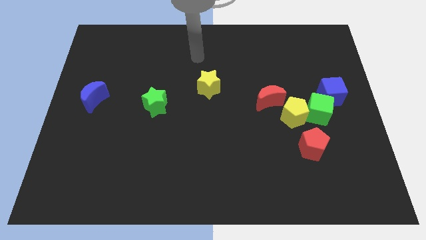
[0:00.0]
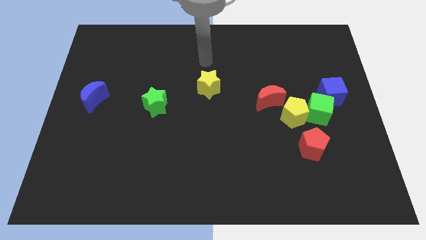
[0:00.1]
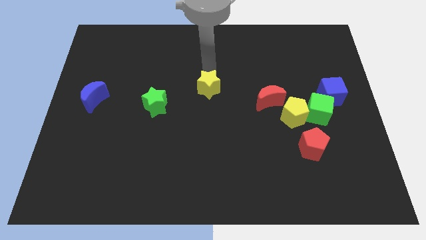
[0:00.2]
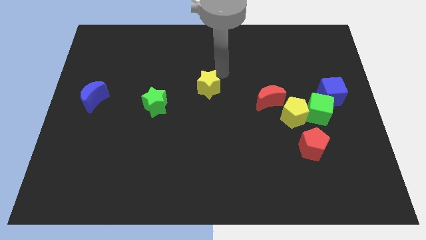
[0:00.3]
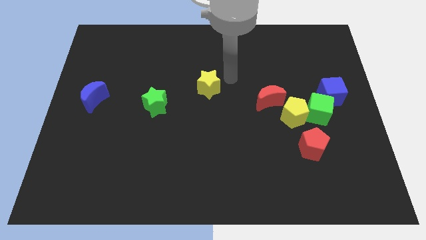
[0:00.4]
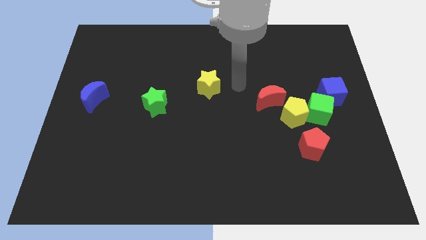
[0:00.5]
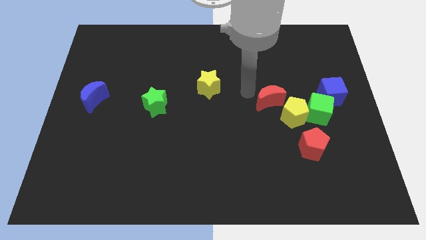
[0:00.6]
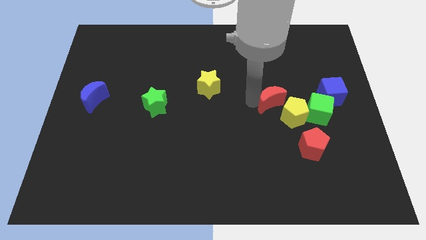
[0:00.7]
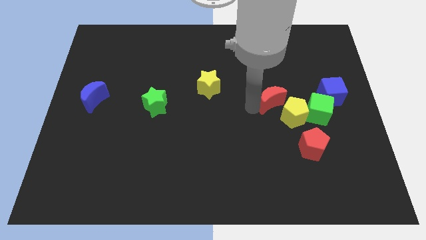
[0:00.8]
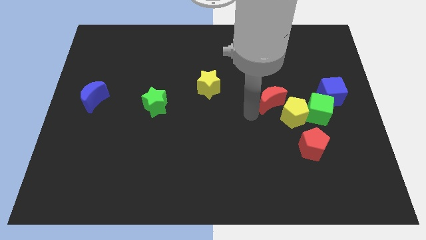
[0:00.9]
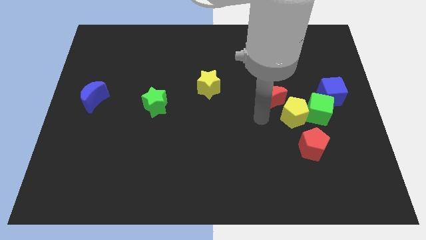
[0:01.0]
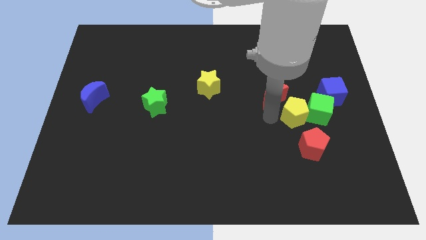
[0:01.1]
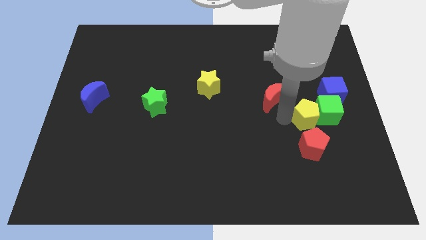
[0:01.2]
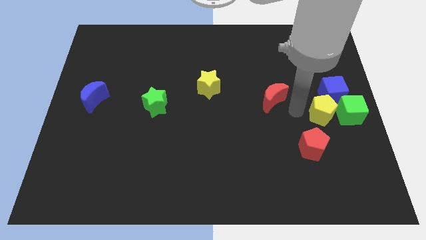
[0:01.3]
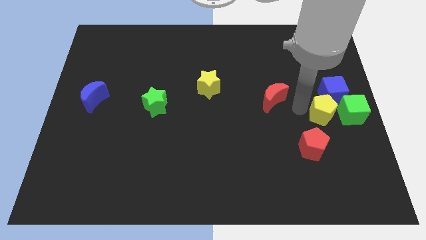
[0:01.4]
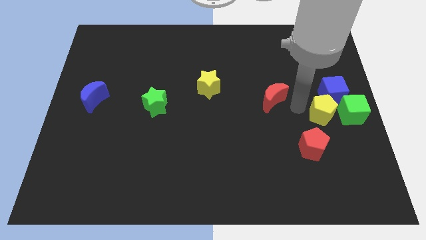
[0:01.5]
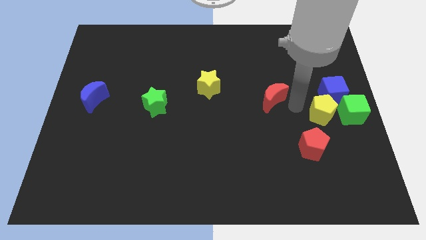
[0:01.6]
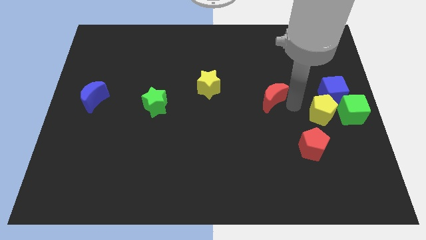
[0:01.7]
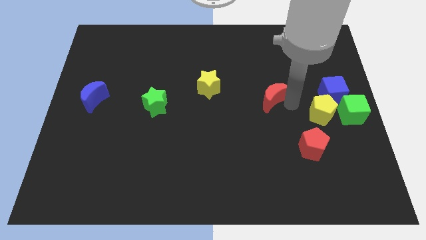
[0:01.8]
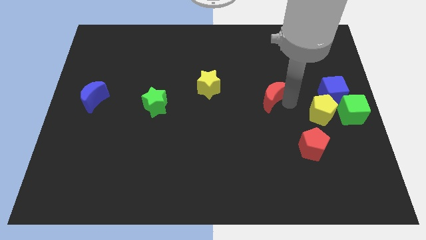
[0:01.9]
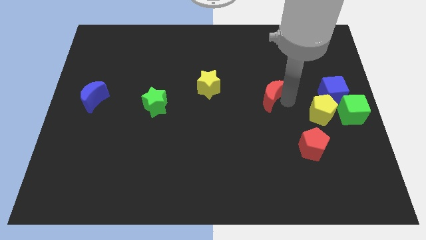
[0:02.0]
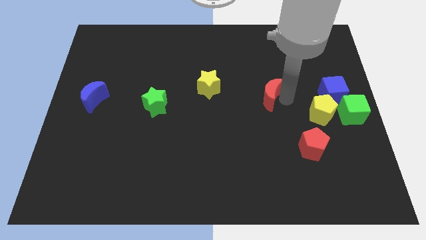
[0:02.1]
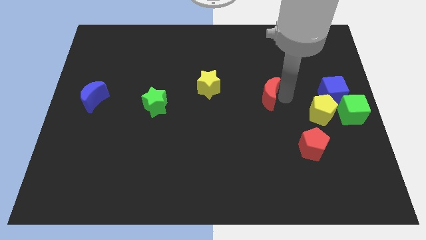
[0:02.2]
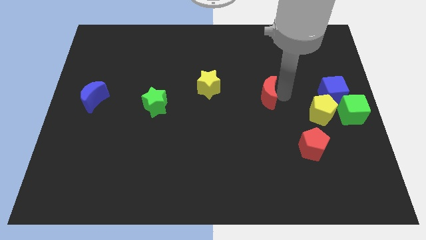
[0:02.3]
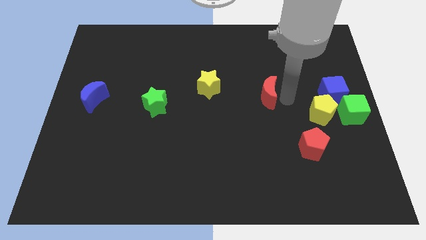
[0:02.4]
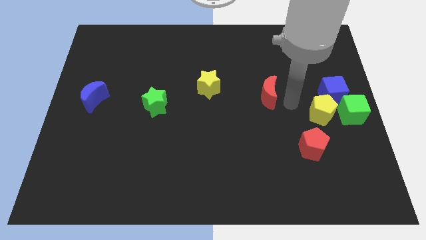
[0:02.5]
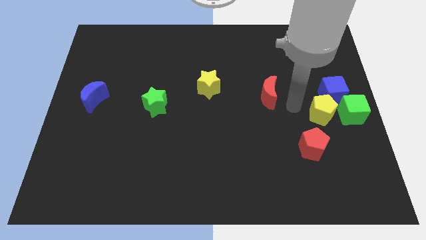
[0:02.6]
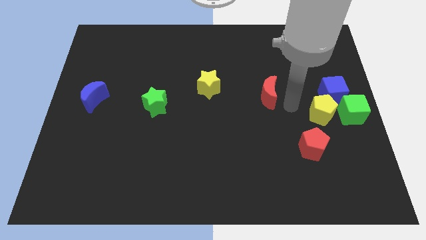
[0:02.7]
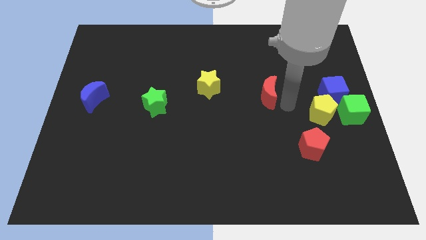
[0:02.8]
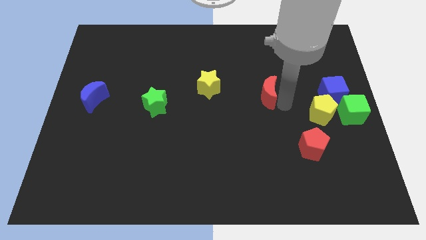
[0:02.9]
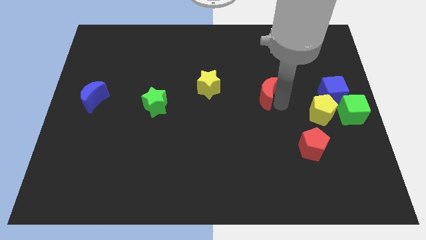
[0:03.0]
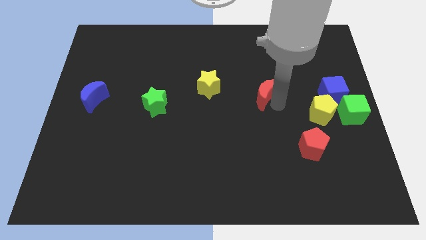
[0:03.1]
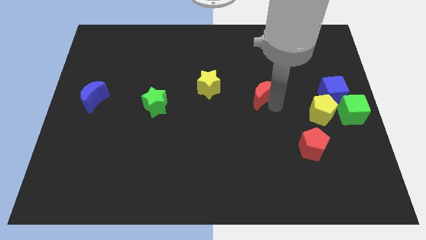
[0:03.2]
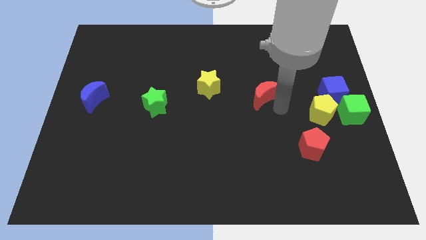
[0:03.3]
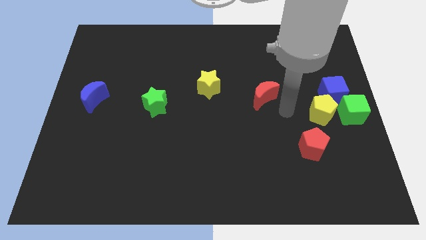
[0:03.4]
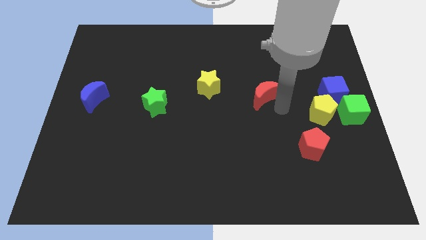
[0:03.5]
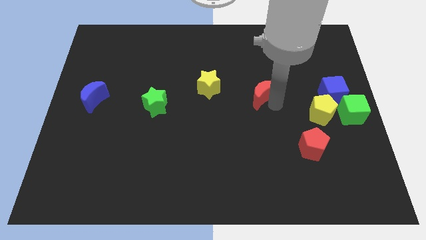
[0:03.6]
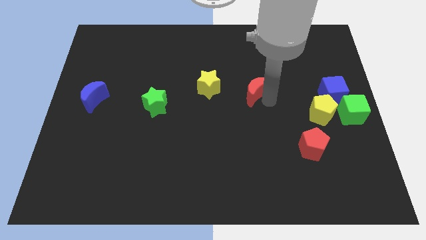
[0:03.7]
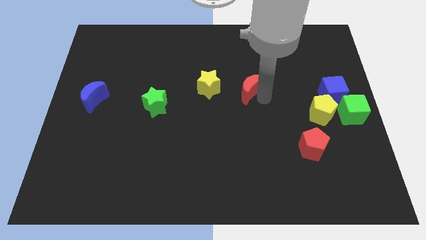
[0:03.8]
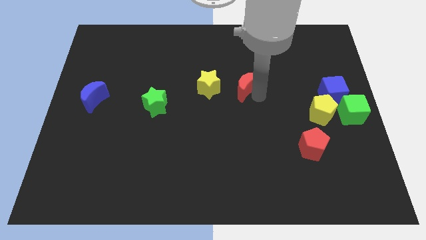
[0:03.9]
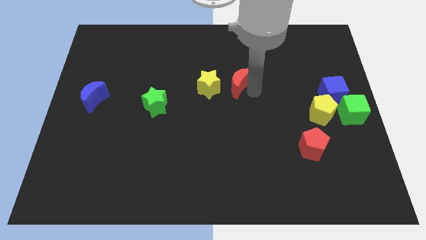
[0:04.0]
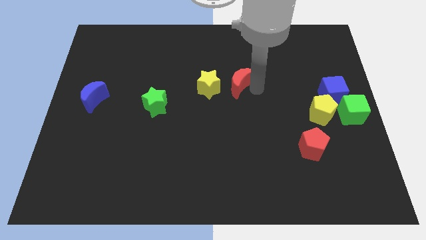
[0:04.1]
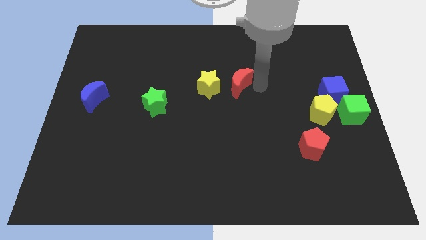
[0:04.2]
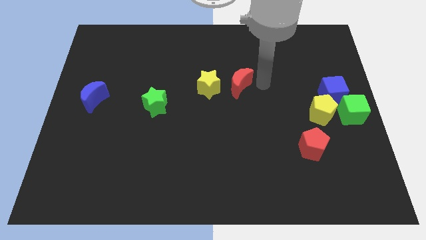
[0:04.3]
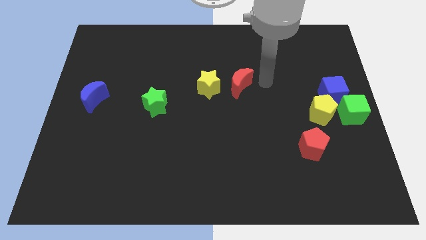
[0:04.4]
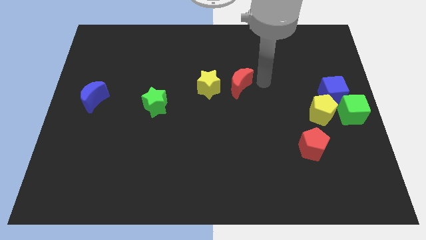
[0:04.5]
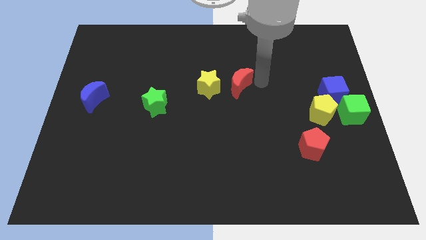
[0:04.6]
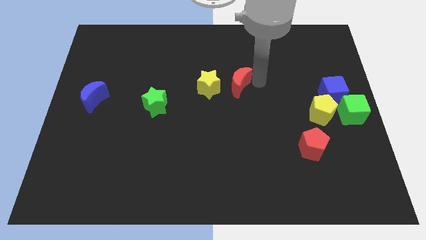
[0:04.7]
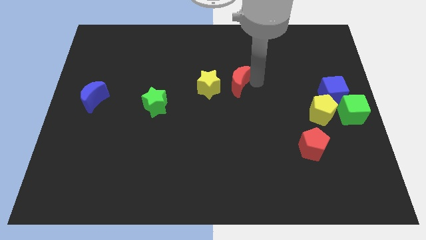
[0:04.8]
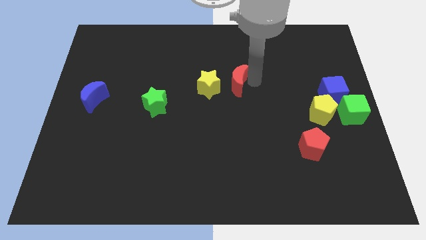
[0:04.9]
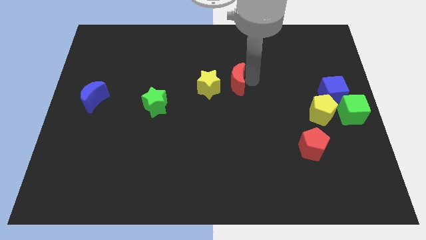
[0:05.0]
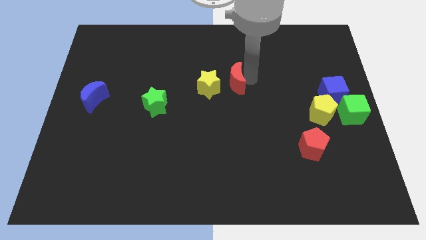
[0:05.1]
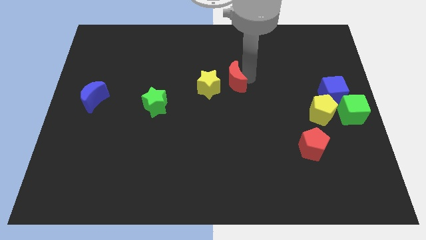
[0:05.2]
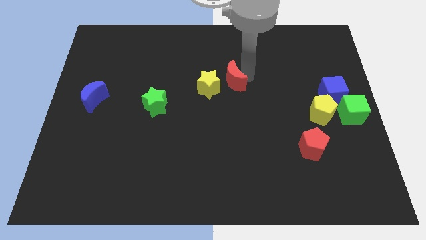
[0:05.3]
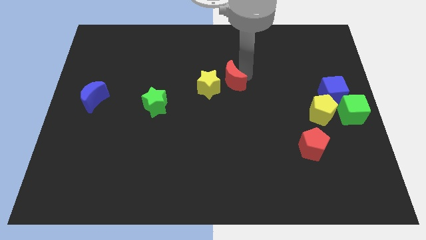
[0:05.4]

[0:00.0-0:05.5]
slide the red moon towards the yellow star

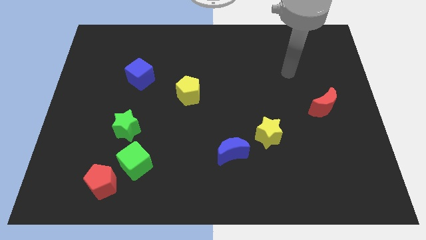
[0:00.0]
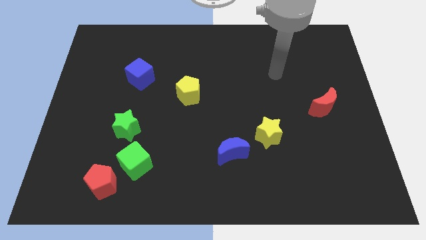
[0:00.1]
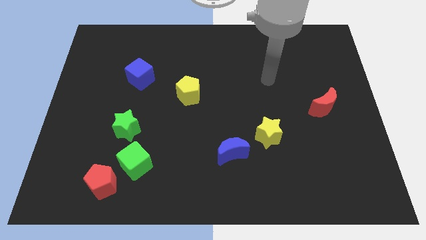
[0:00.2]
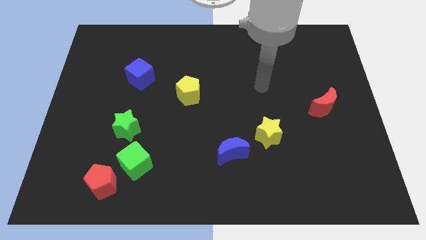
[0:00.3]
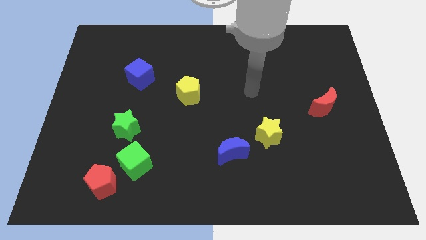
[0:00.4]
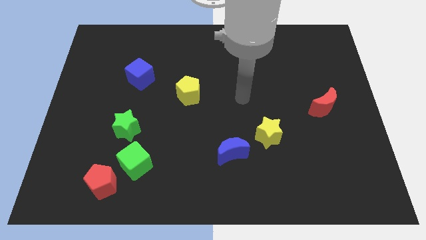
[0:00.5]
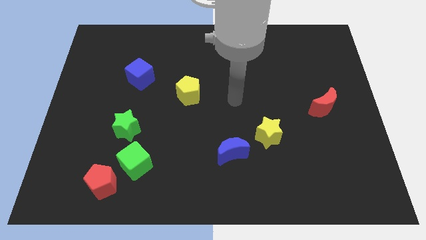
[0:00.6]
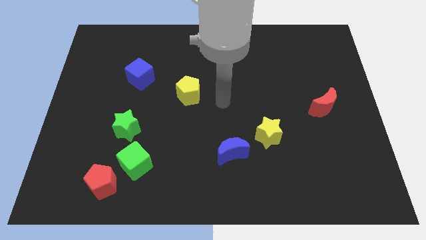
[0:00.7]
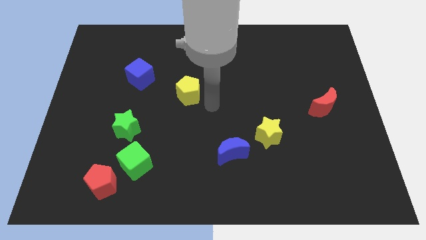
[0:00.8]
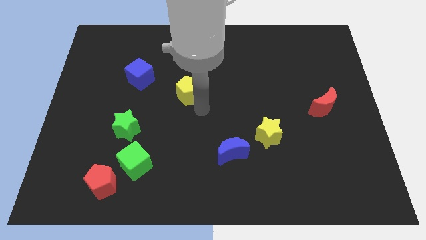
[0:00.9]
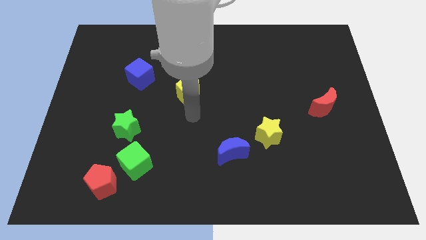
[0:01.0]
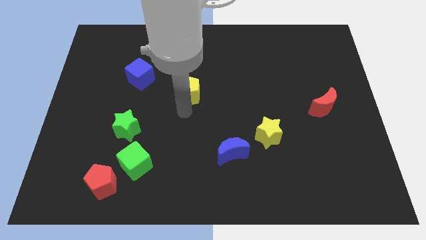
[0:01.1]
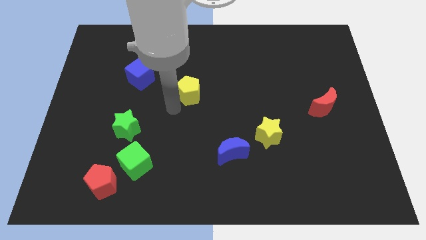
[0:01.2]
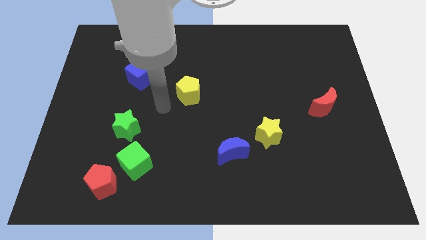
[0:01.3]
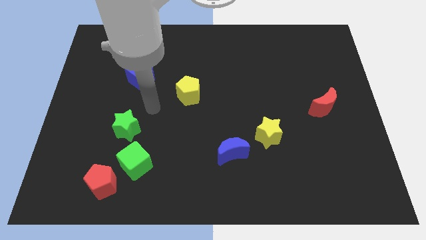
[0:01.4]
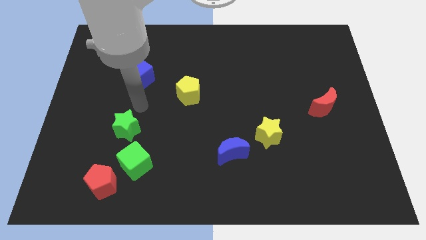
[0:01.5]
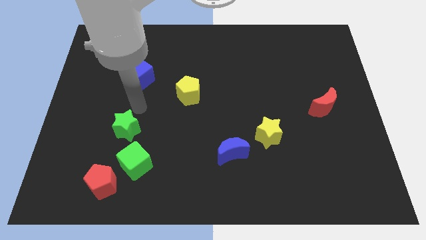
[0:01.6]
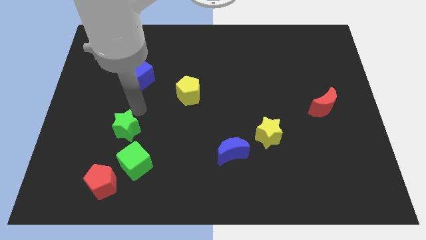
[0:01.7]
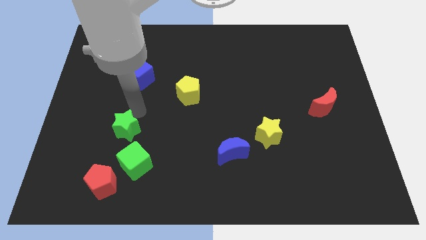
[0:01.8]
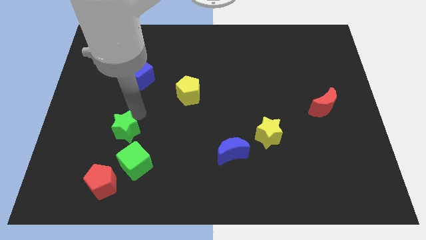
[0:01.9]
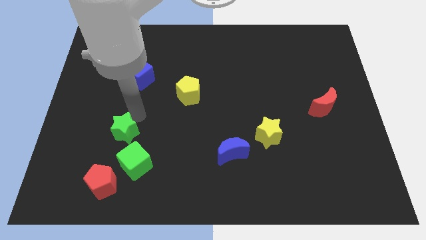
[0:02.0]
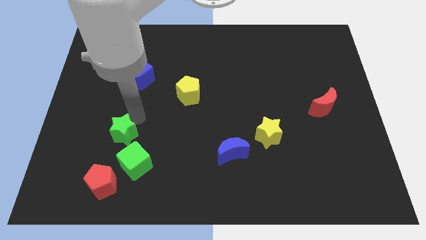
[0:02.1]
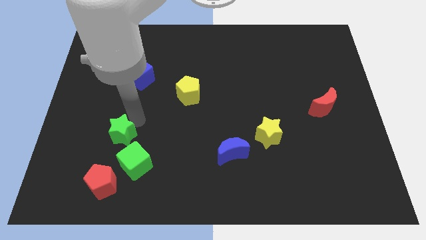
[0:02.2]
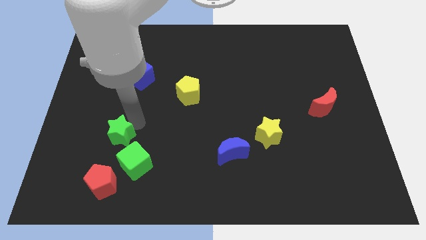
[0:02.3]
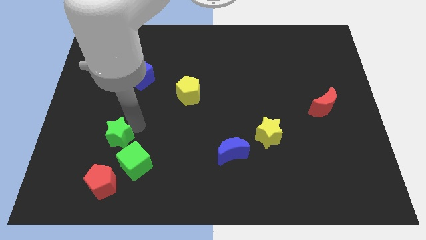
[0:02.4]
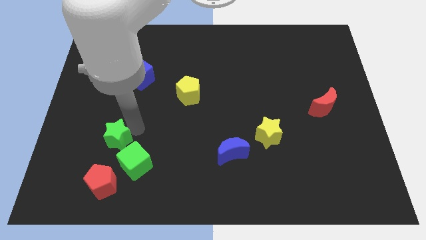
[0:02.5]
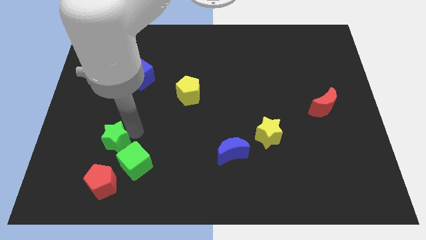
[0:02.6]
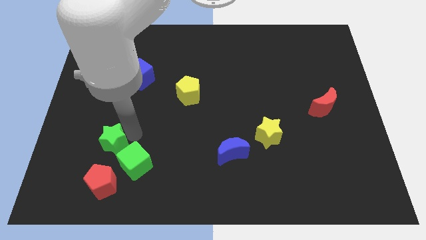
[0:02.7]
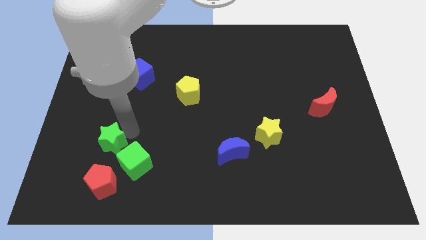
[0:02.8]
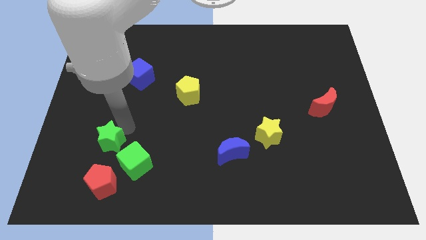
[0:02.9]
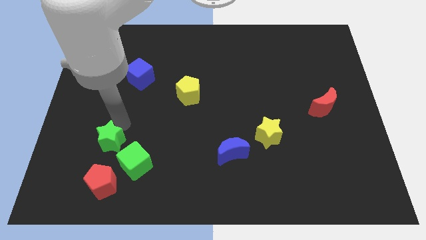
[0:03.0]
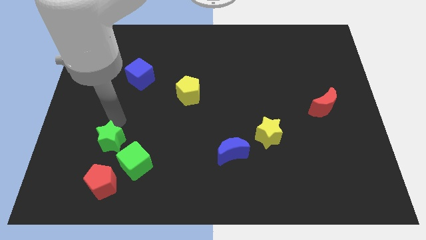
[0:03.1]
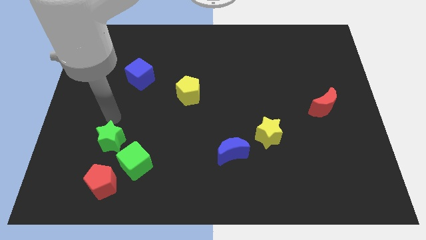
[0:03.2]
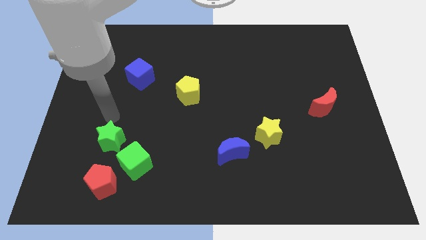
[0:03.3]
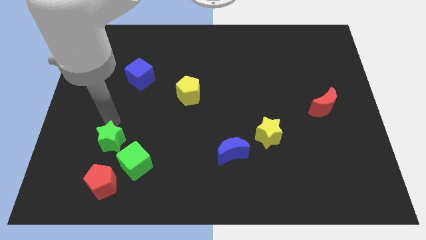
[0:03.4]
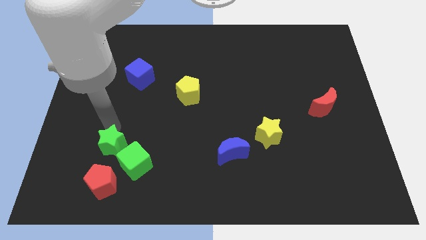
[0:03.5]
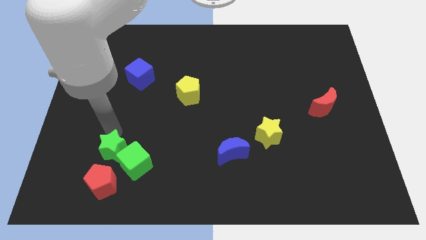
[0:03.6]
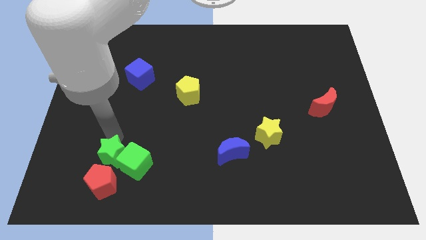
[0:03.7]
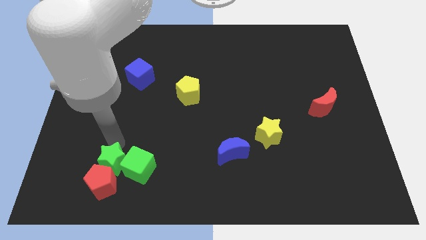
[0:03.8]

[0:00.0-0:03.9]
slide the green star to the red pentagon
